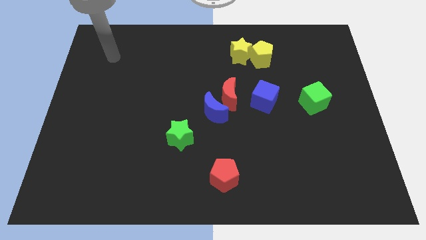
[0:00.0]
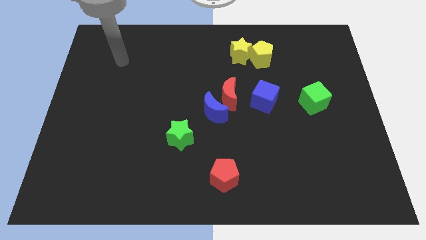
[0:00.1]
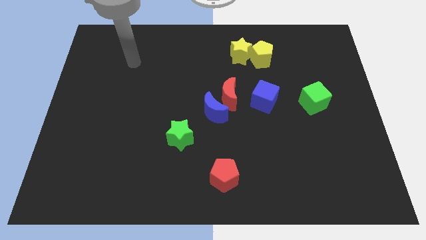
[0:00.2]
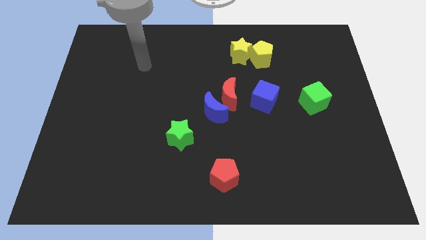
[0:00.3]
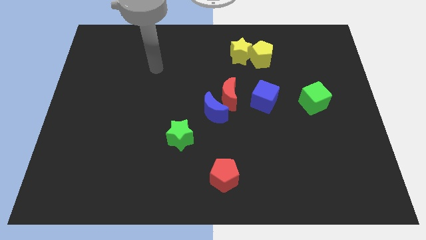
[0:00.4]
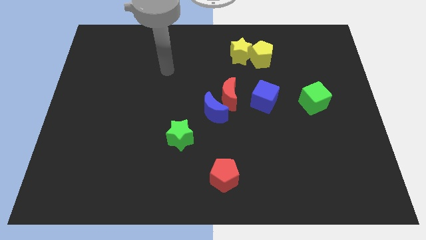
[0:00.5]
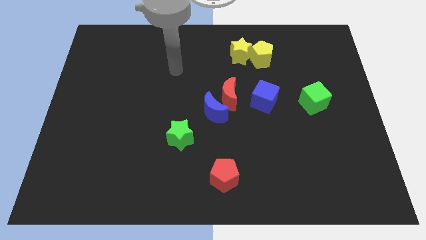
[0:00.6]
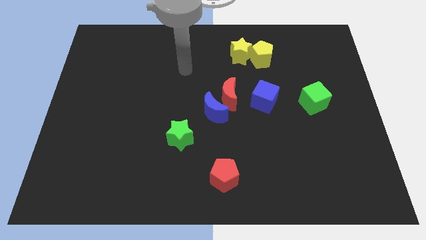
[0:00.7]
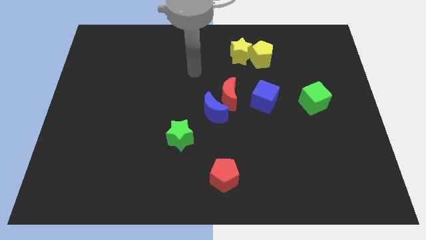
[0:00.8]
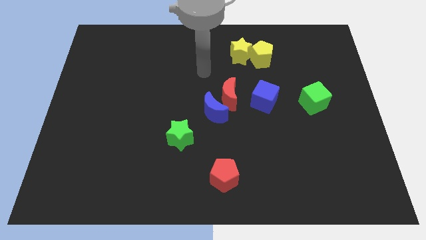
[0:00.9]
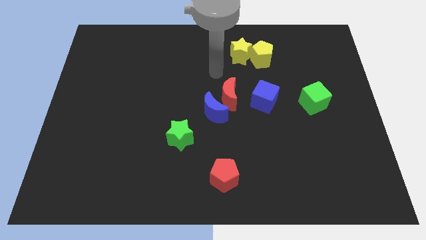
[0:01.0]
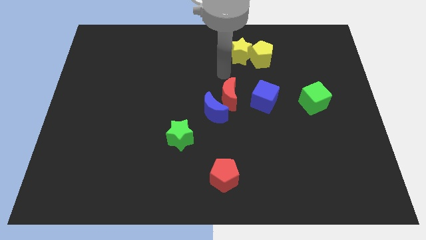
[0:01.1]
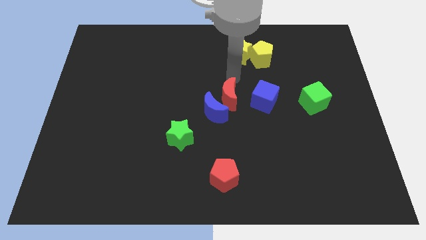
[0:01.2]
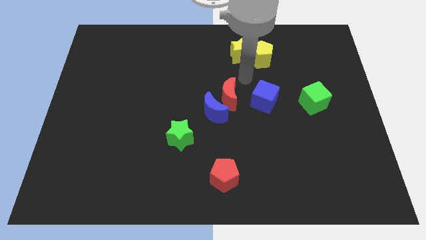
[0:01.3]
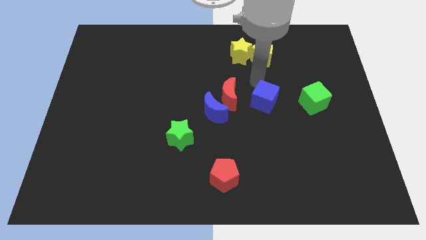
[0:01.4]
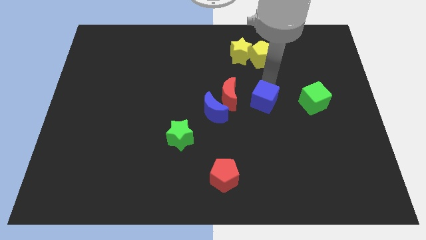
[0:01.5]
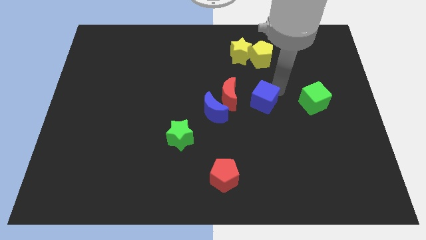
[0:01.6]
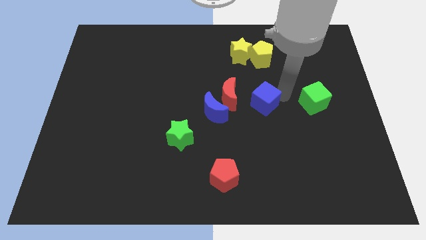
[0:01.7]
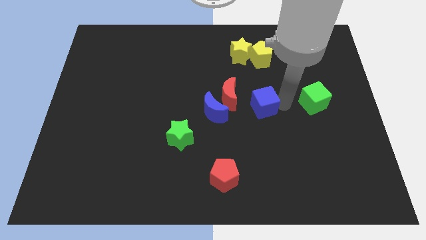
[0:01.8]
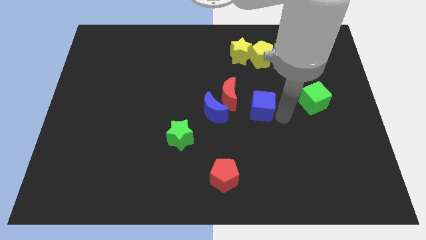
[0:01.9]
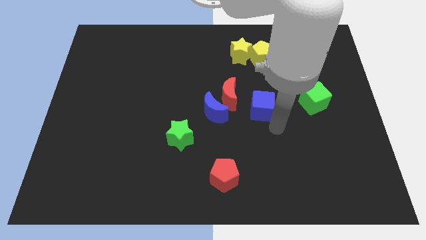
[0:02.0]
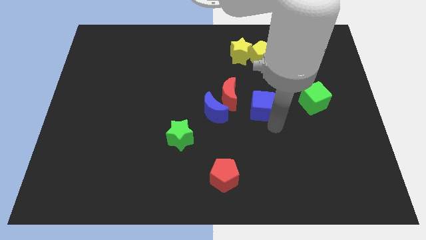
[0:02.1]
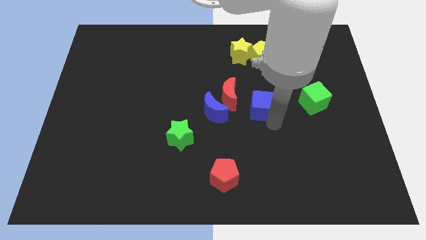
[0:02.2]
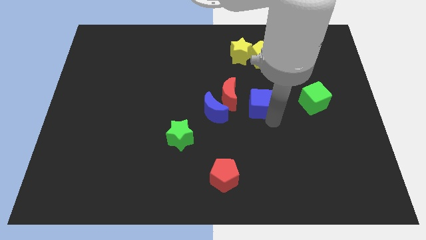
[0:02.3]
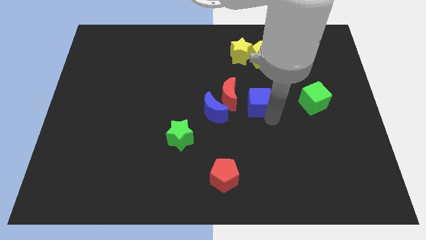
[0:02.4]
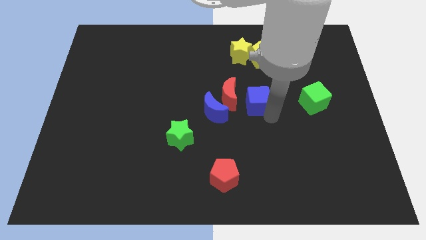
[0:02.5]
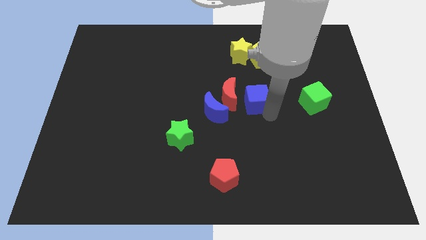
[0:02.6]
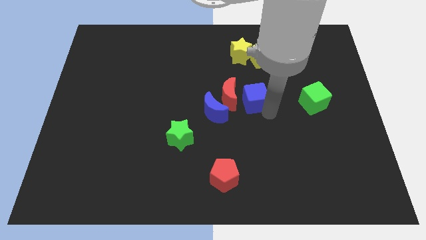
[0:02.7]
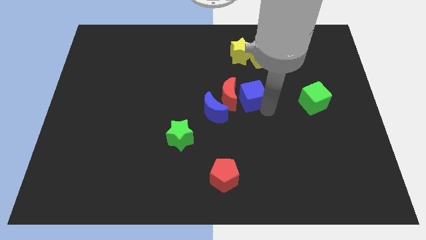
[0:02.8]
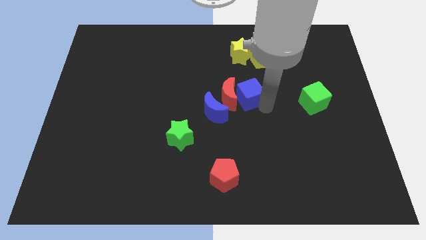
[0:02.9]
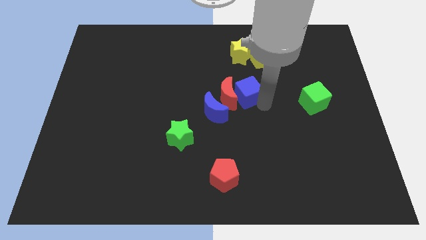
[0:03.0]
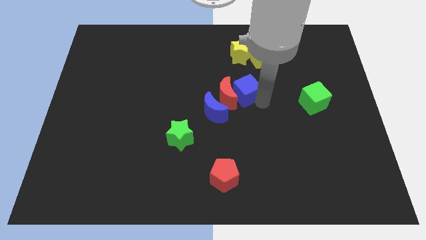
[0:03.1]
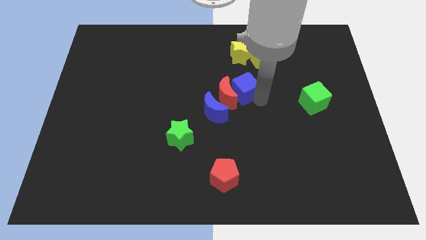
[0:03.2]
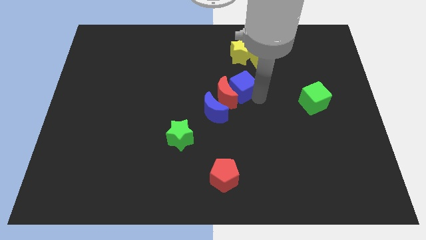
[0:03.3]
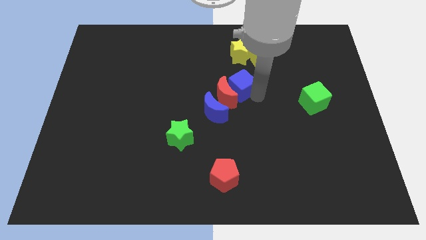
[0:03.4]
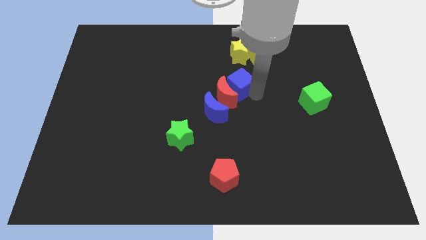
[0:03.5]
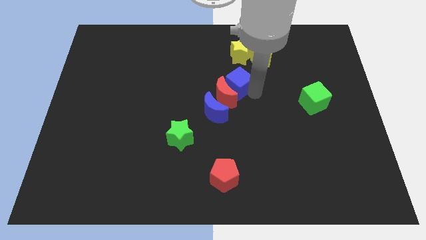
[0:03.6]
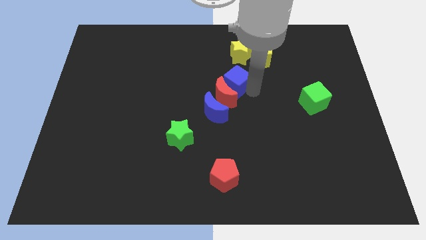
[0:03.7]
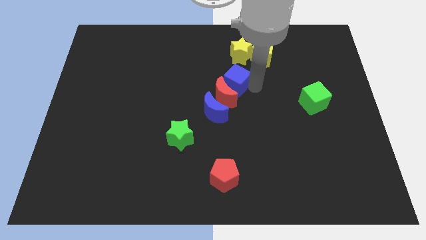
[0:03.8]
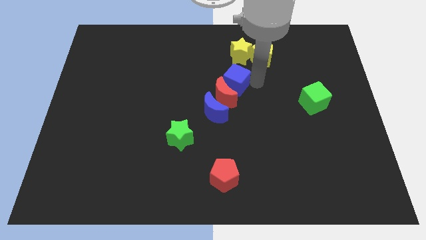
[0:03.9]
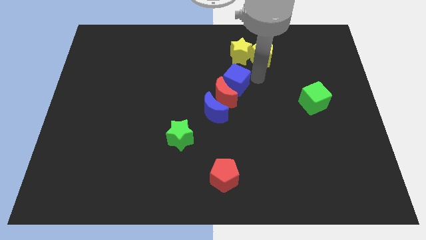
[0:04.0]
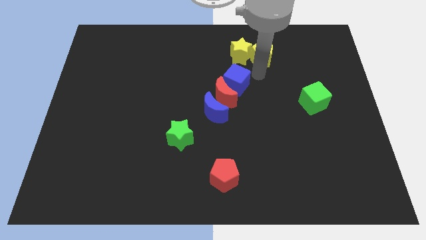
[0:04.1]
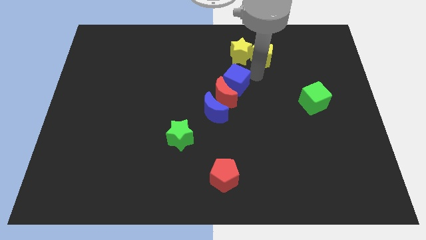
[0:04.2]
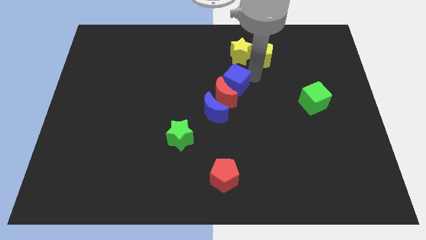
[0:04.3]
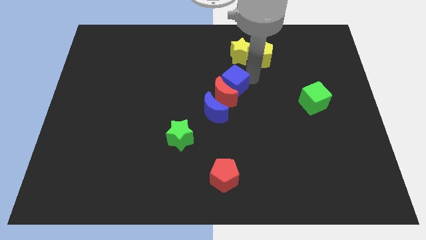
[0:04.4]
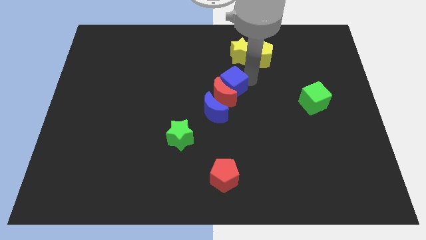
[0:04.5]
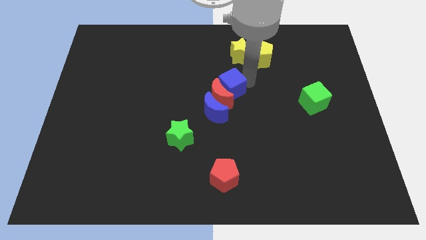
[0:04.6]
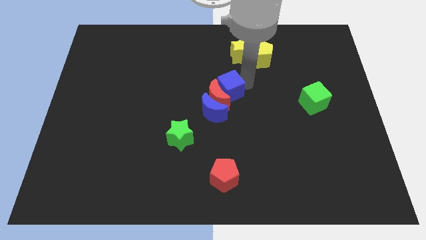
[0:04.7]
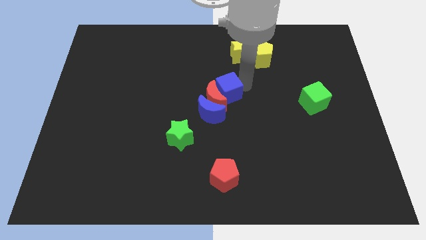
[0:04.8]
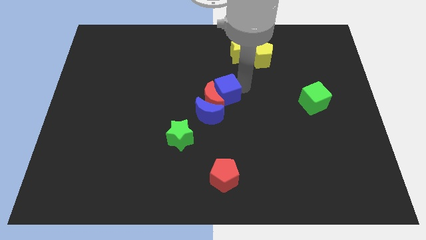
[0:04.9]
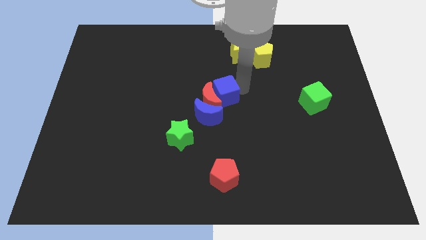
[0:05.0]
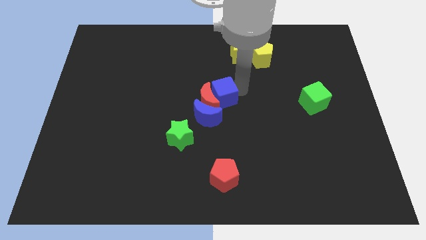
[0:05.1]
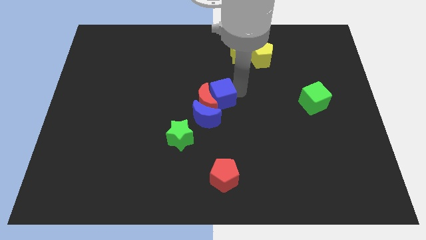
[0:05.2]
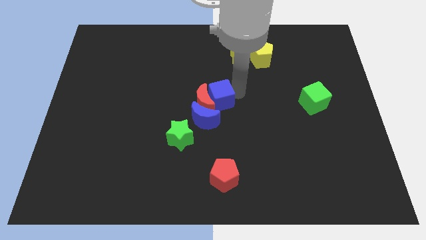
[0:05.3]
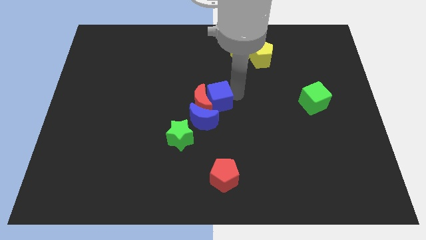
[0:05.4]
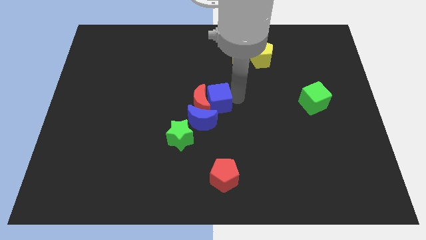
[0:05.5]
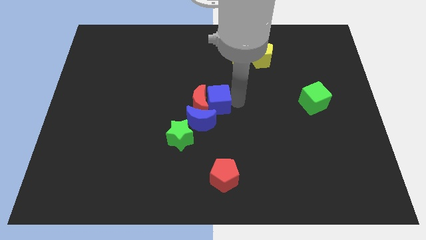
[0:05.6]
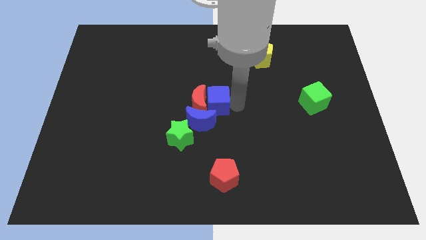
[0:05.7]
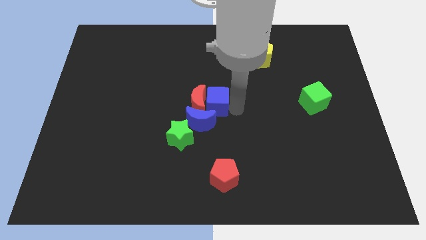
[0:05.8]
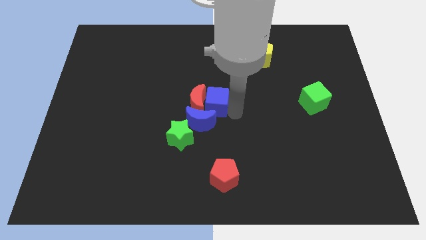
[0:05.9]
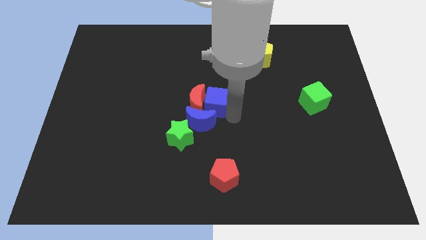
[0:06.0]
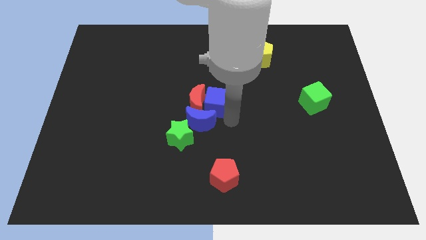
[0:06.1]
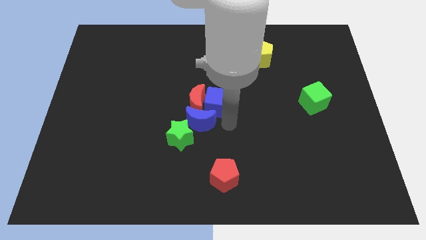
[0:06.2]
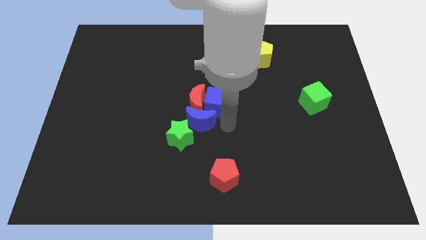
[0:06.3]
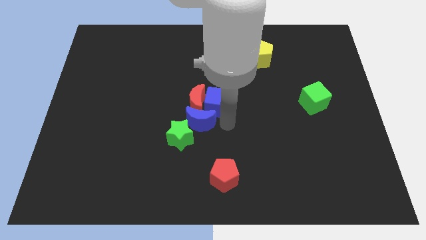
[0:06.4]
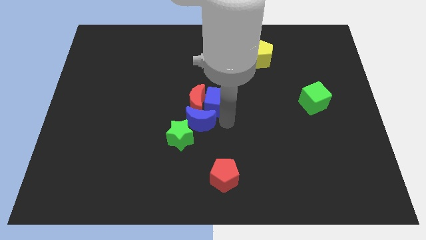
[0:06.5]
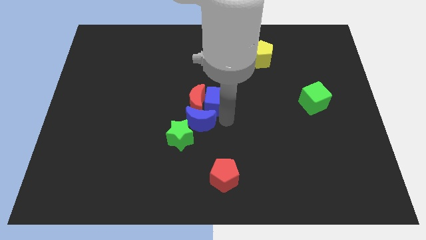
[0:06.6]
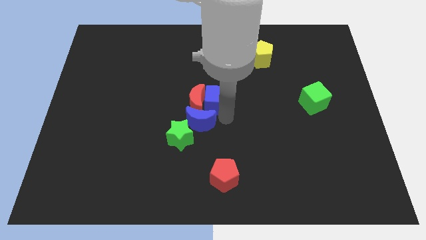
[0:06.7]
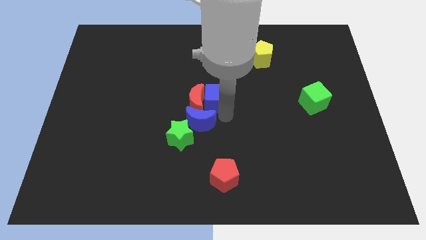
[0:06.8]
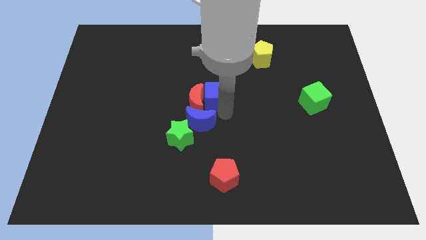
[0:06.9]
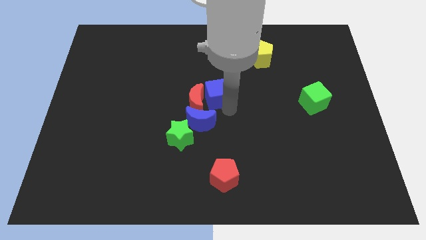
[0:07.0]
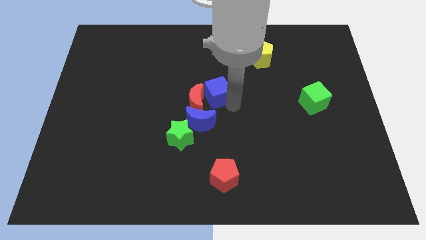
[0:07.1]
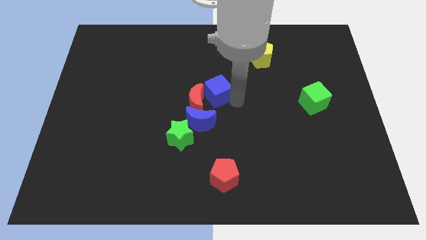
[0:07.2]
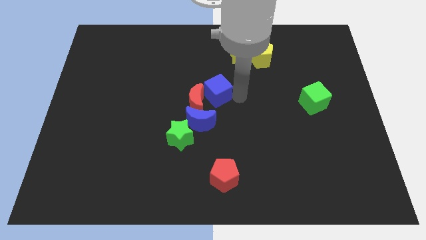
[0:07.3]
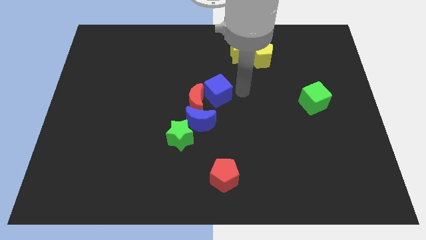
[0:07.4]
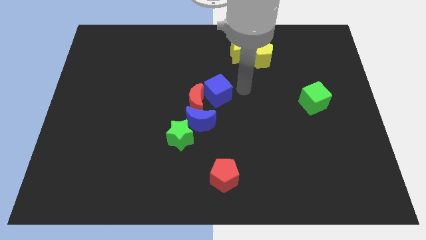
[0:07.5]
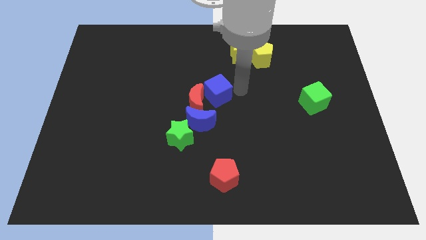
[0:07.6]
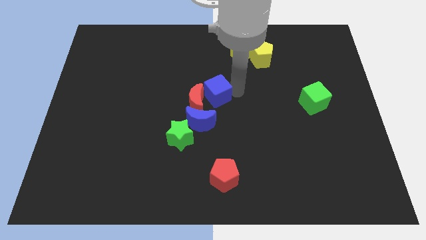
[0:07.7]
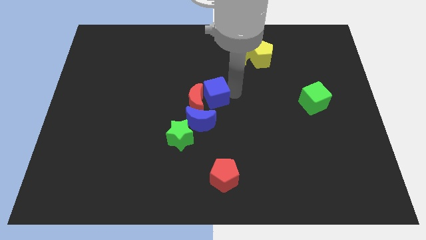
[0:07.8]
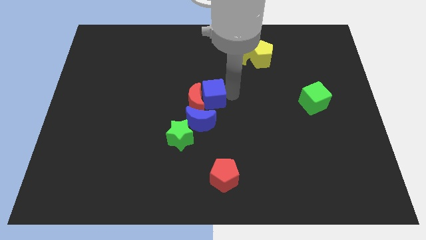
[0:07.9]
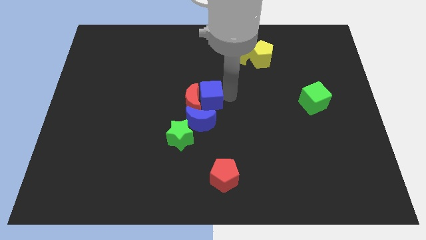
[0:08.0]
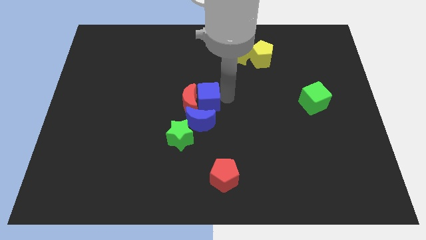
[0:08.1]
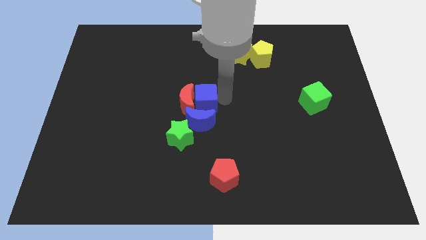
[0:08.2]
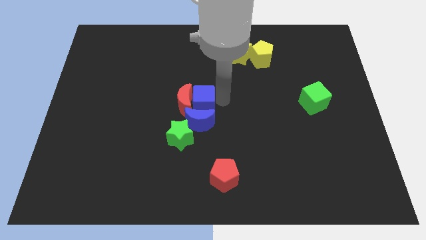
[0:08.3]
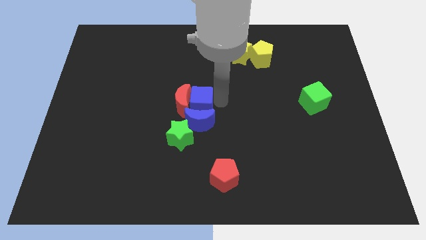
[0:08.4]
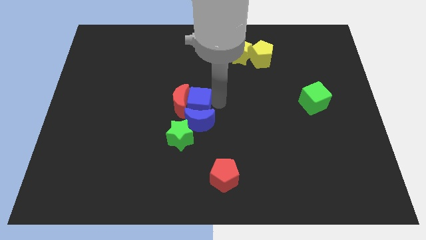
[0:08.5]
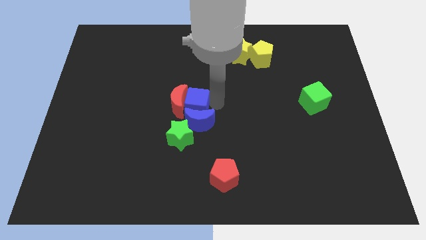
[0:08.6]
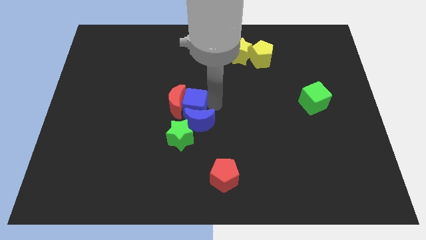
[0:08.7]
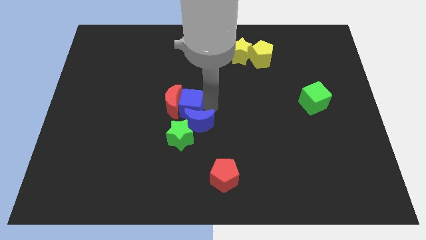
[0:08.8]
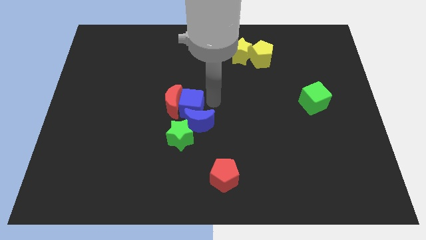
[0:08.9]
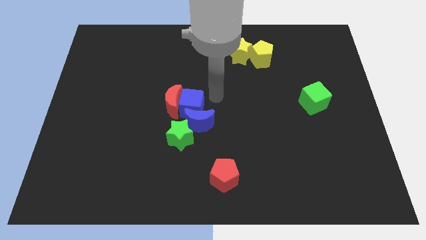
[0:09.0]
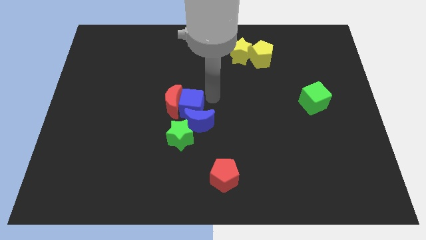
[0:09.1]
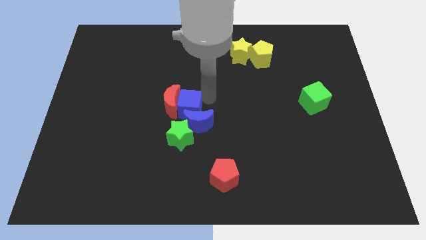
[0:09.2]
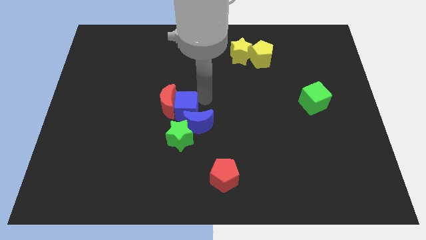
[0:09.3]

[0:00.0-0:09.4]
push the blue cube to the left of the blue moon
